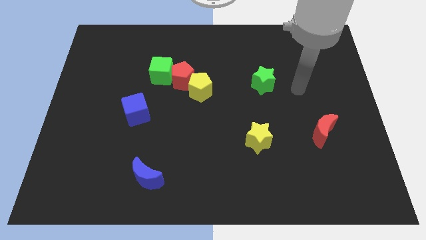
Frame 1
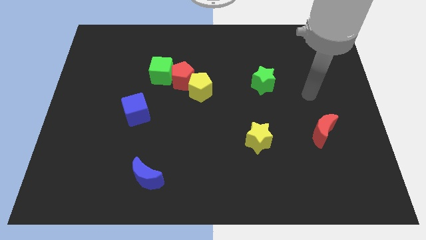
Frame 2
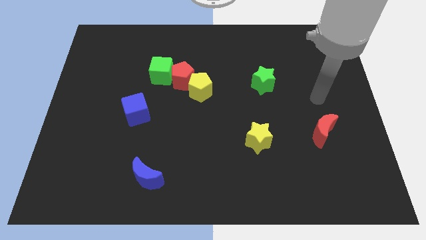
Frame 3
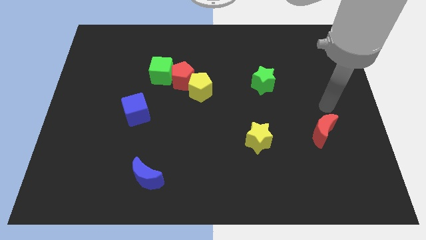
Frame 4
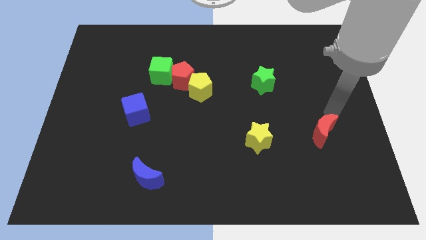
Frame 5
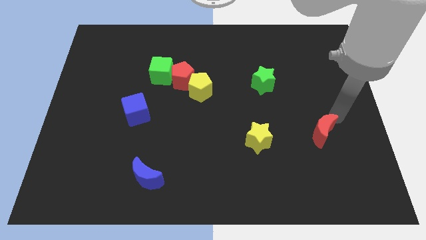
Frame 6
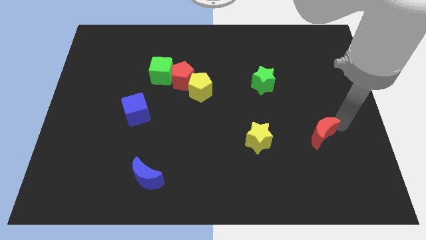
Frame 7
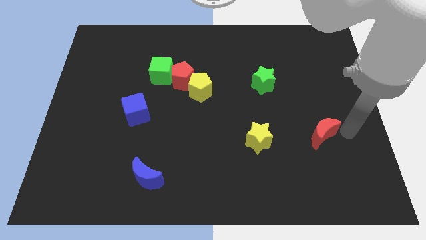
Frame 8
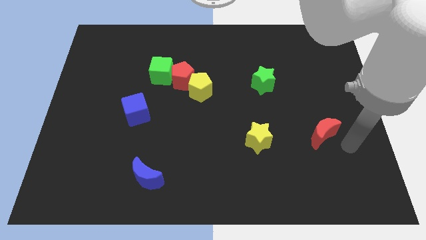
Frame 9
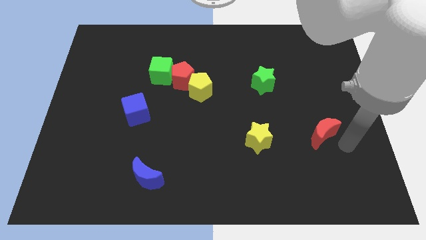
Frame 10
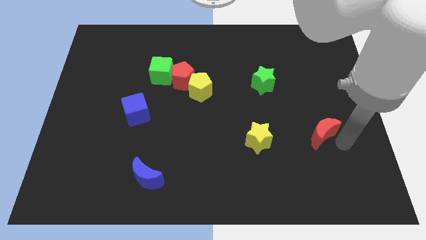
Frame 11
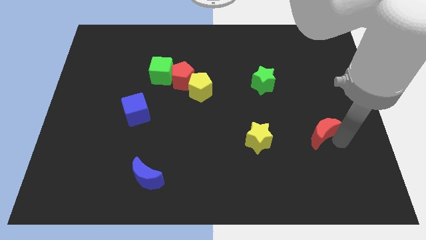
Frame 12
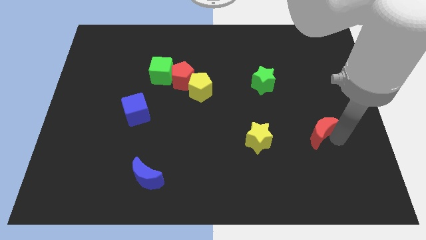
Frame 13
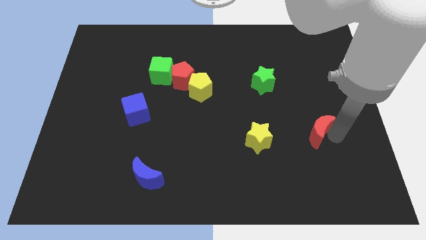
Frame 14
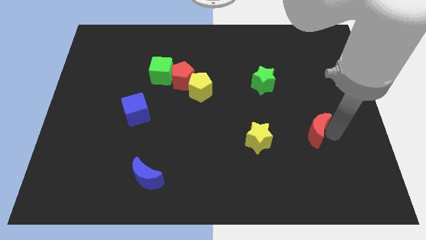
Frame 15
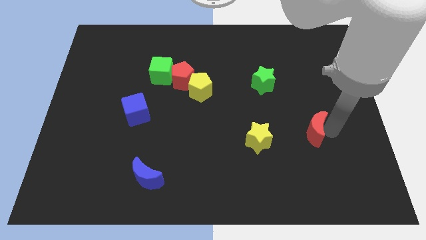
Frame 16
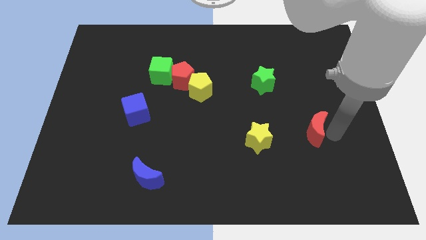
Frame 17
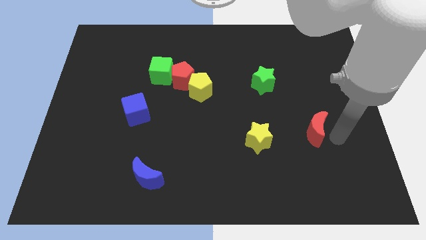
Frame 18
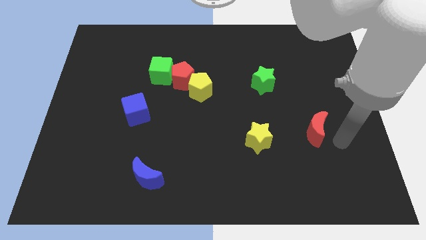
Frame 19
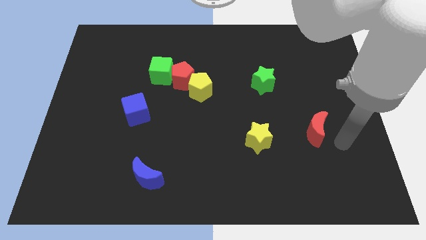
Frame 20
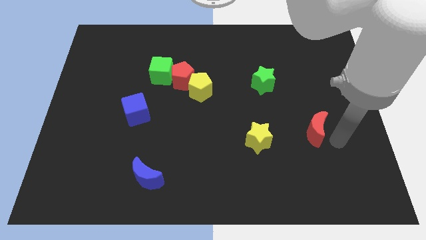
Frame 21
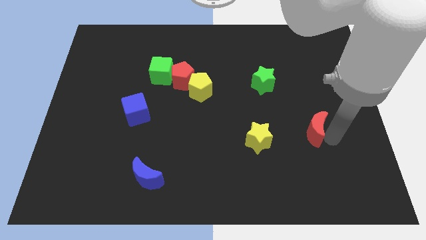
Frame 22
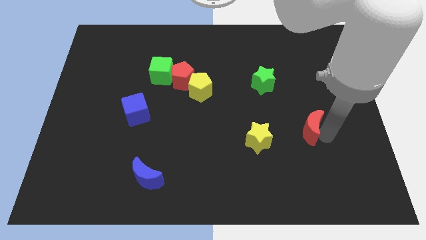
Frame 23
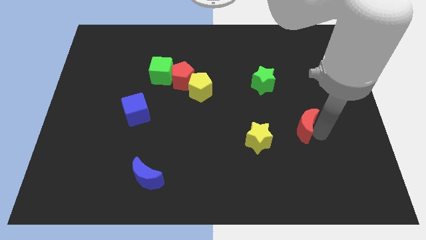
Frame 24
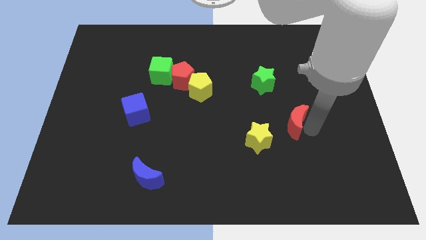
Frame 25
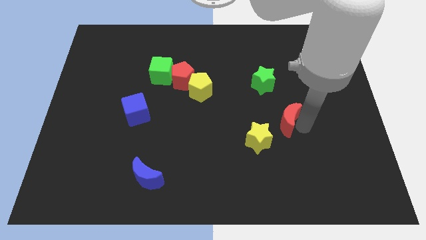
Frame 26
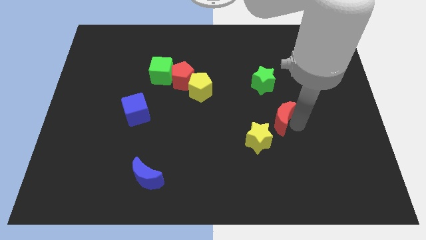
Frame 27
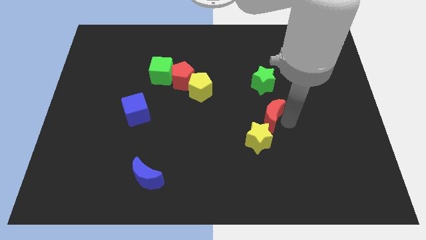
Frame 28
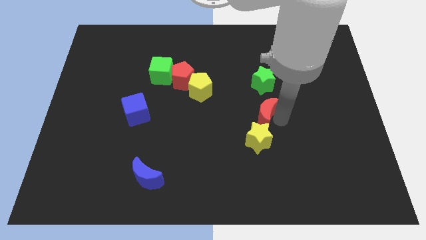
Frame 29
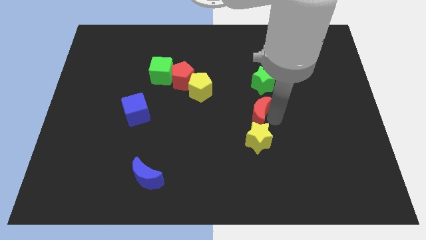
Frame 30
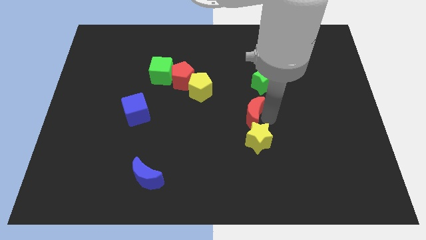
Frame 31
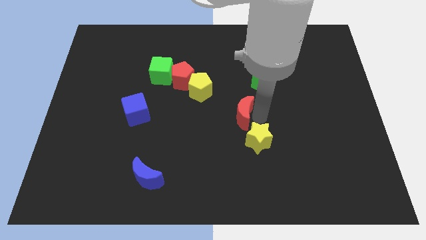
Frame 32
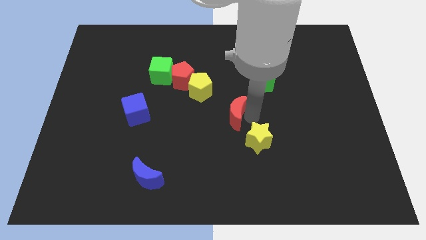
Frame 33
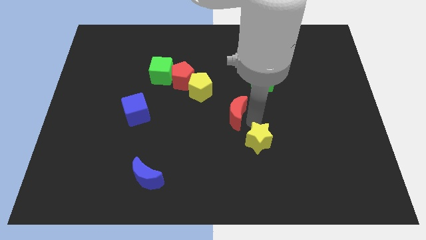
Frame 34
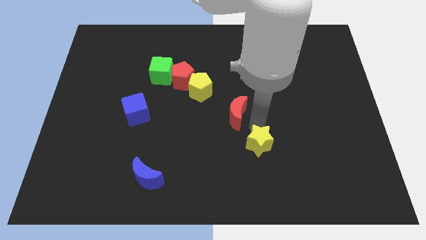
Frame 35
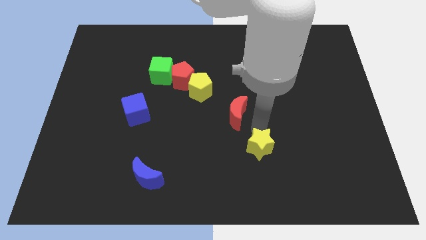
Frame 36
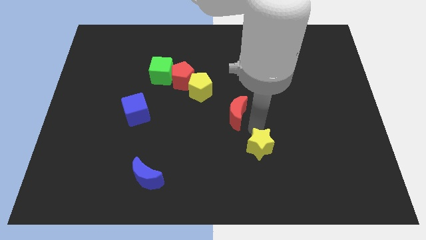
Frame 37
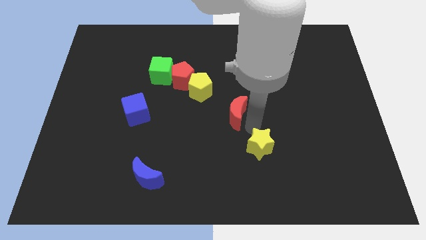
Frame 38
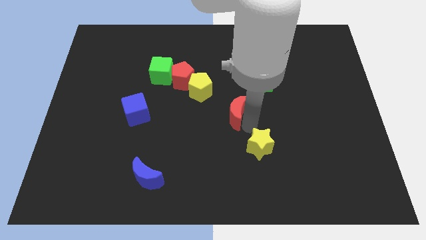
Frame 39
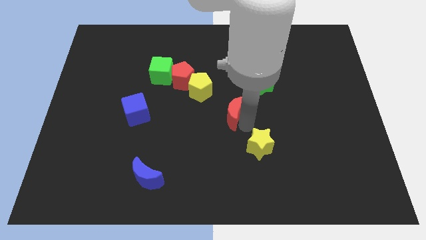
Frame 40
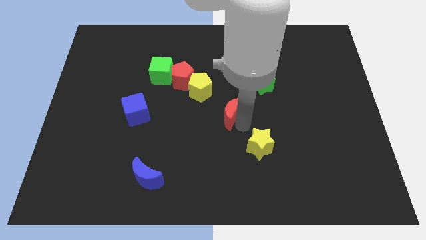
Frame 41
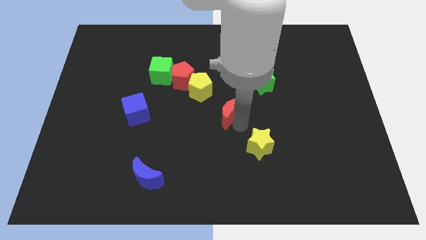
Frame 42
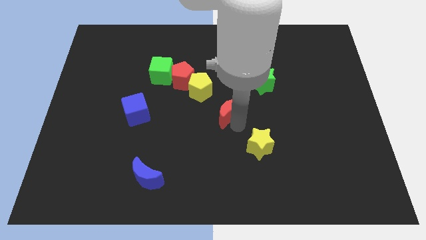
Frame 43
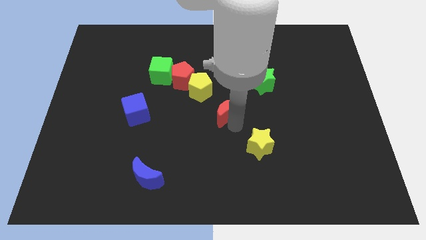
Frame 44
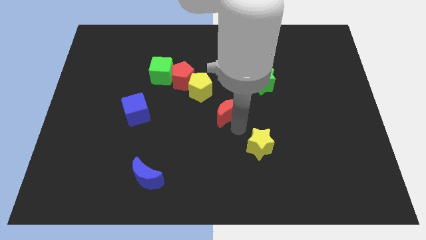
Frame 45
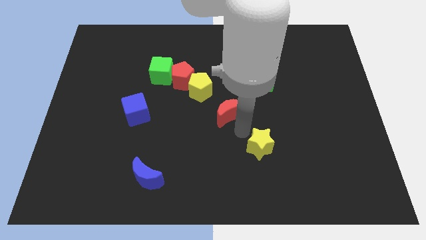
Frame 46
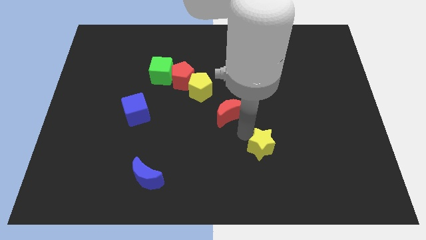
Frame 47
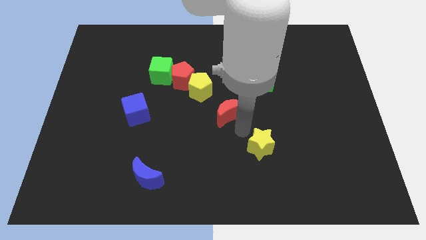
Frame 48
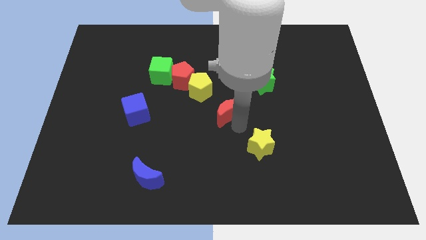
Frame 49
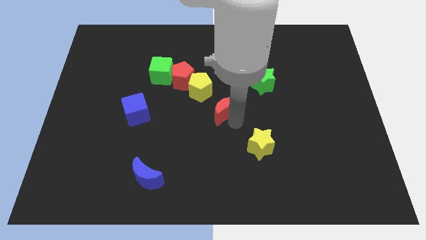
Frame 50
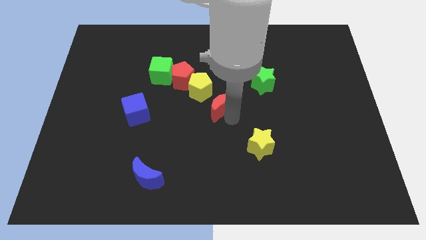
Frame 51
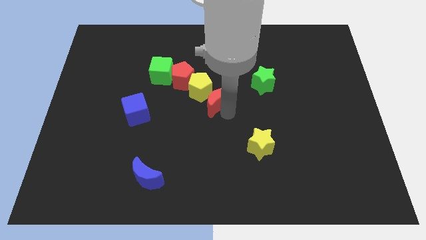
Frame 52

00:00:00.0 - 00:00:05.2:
move the red moon to the bottom right of the red pentagon
